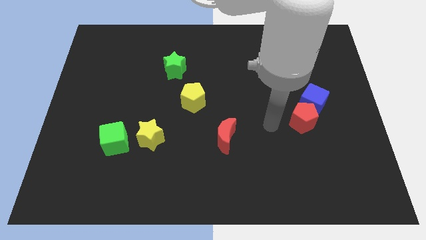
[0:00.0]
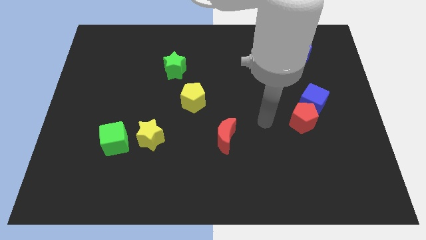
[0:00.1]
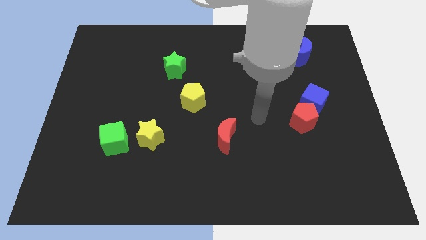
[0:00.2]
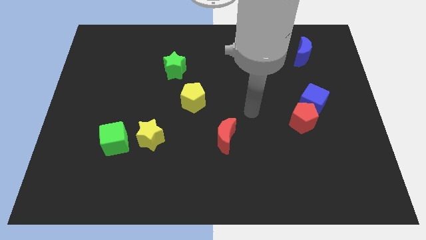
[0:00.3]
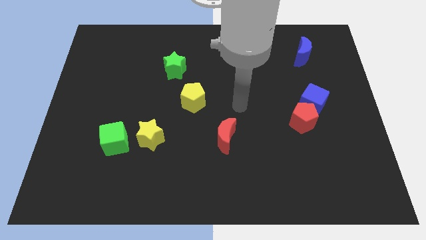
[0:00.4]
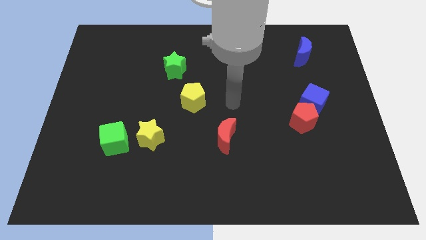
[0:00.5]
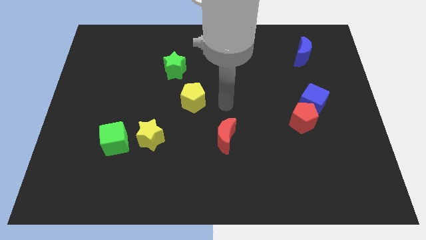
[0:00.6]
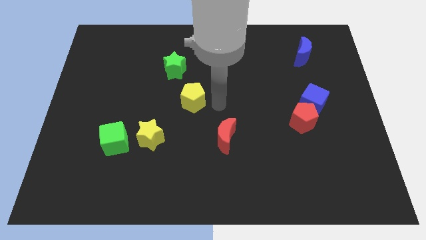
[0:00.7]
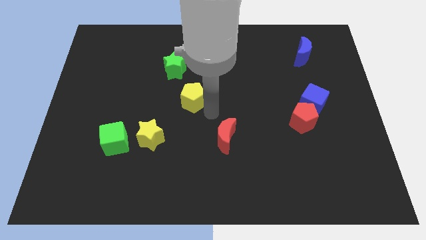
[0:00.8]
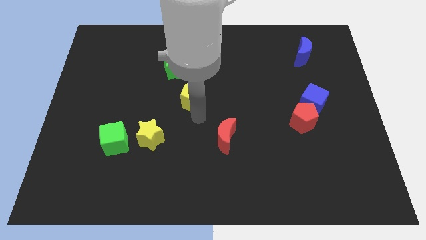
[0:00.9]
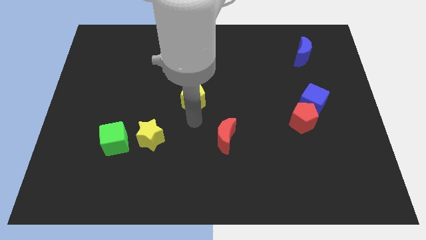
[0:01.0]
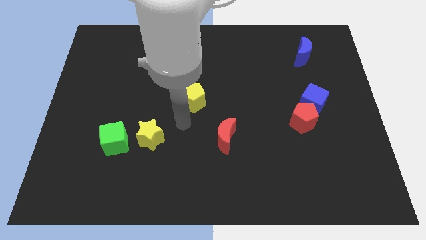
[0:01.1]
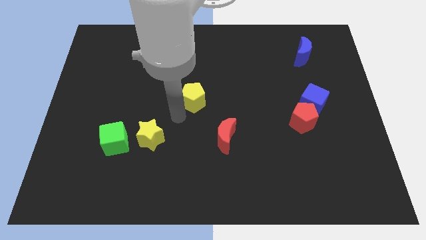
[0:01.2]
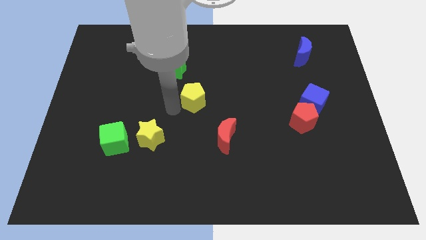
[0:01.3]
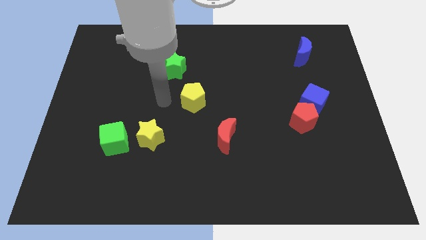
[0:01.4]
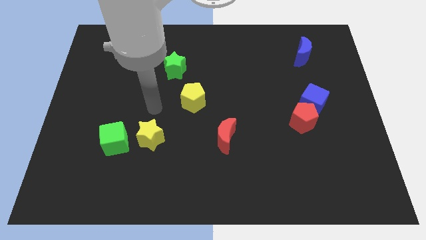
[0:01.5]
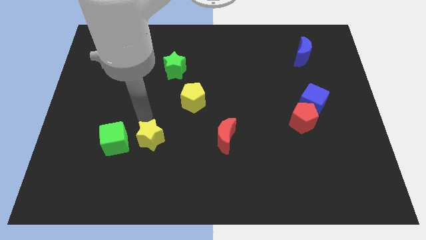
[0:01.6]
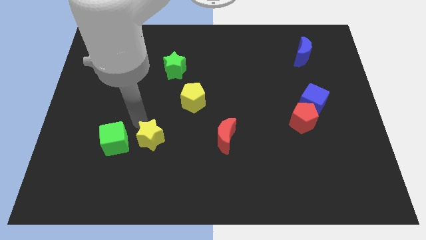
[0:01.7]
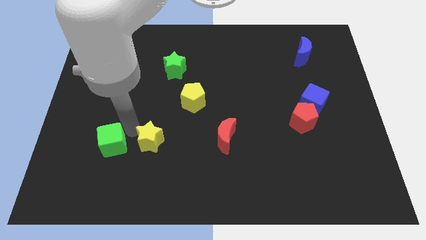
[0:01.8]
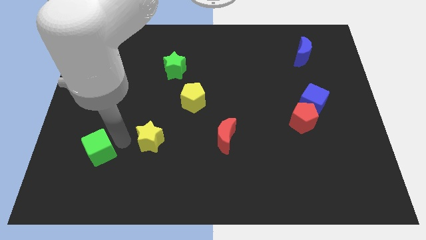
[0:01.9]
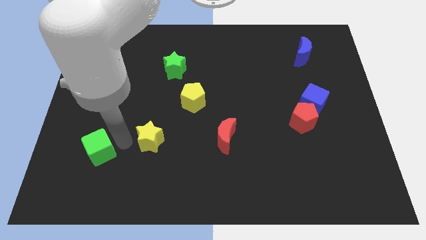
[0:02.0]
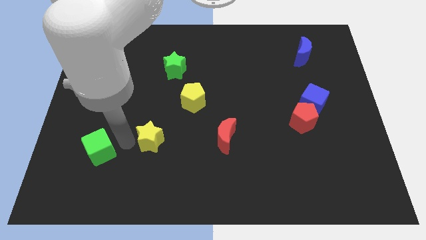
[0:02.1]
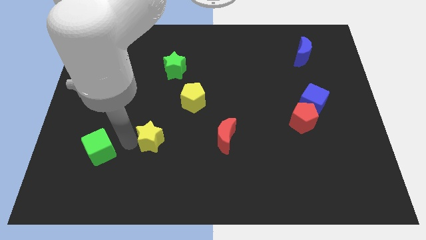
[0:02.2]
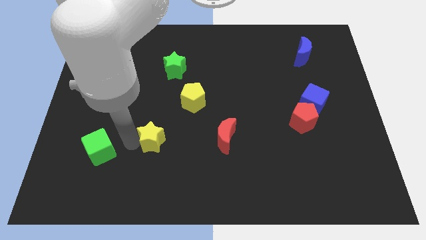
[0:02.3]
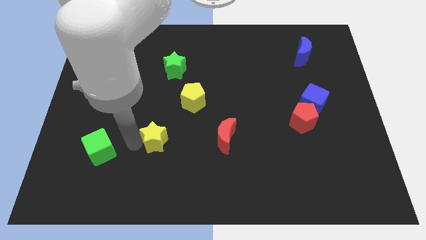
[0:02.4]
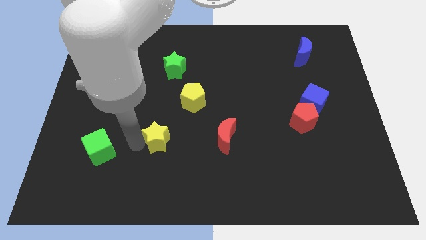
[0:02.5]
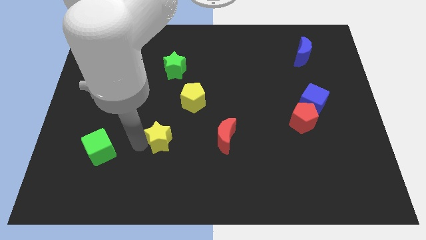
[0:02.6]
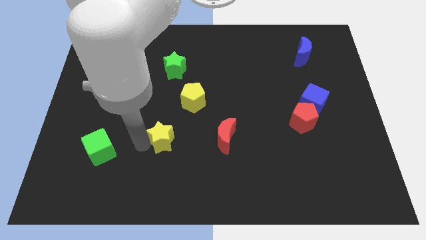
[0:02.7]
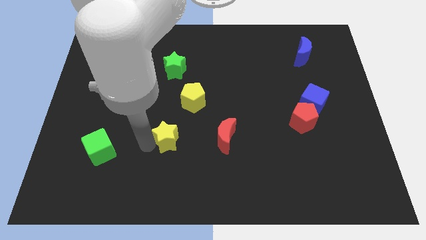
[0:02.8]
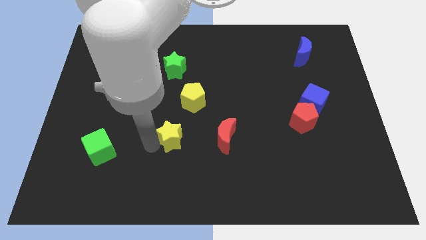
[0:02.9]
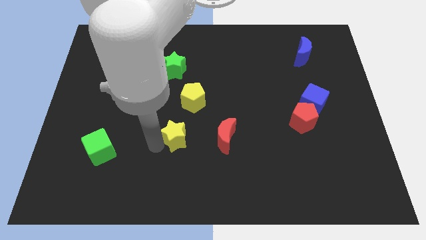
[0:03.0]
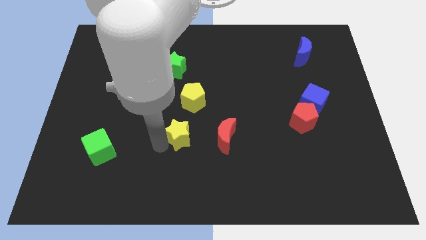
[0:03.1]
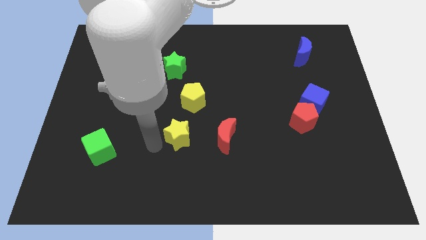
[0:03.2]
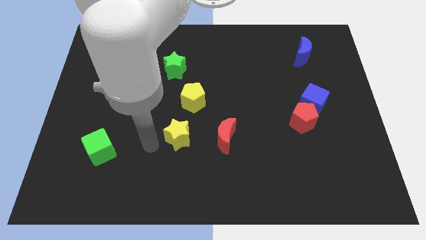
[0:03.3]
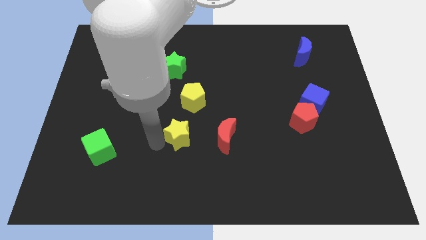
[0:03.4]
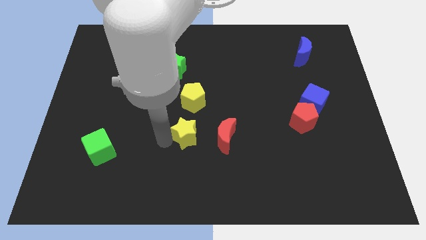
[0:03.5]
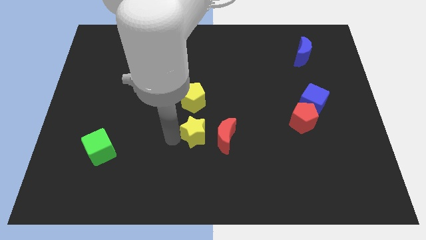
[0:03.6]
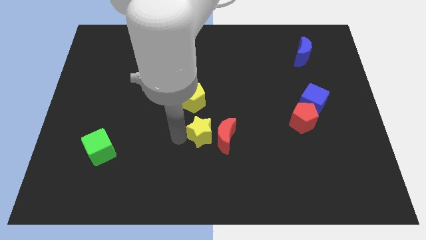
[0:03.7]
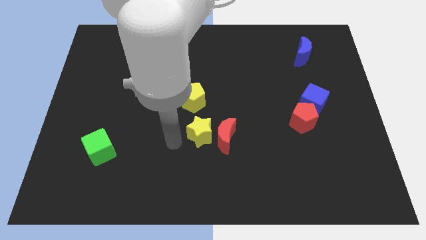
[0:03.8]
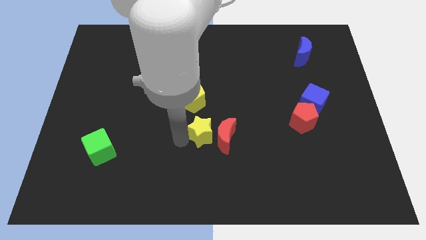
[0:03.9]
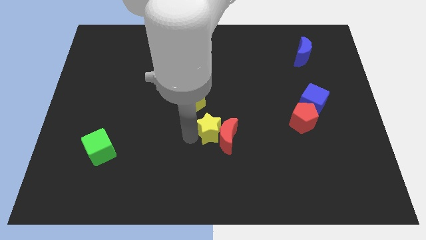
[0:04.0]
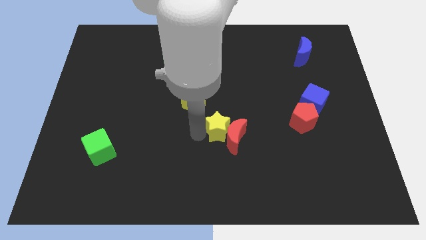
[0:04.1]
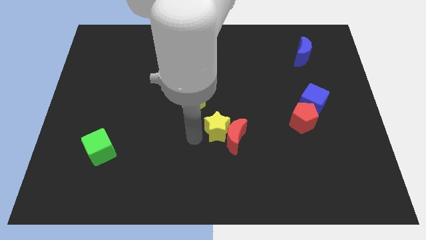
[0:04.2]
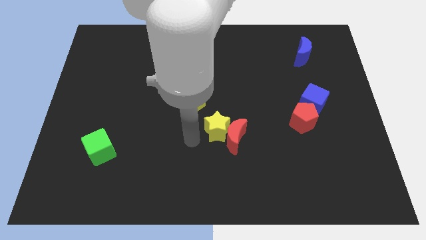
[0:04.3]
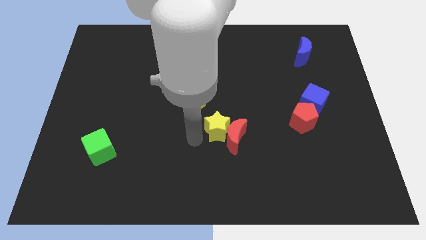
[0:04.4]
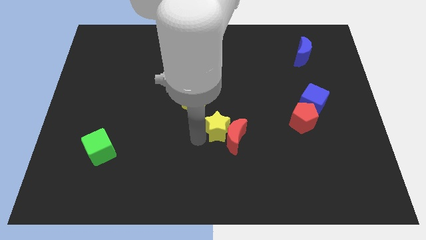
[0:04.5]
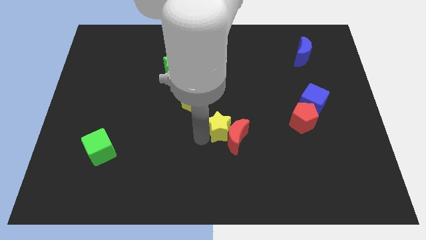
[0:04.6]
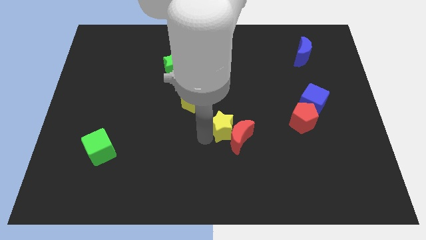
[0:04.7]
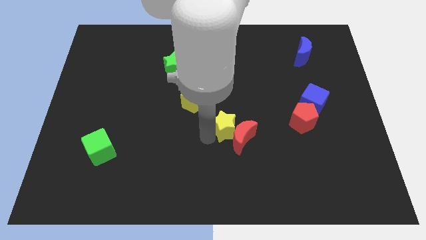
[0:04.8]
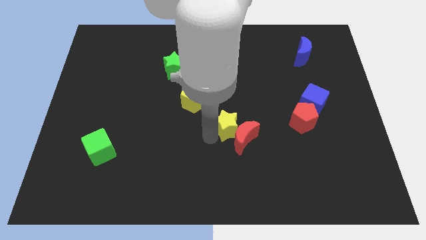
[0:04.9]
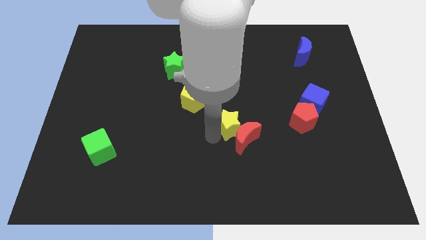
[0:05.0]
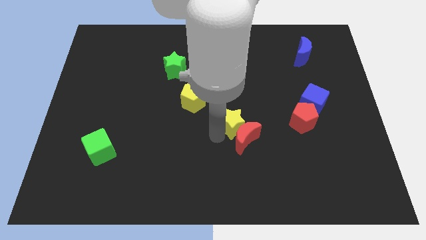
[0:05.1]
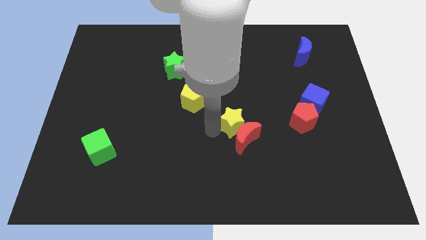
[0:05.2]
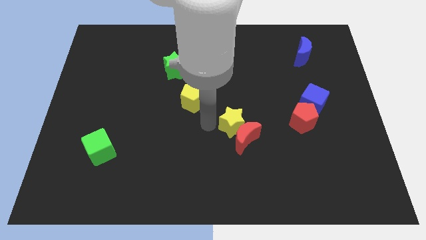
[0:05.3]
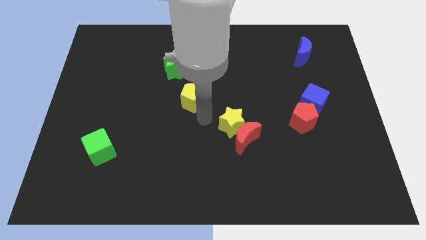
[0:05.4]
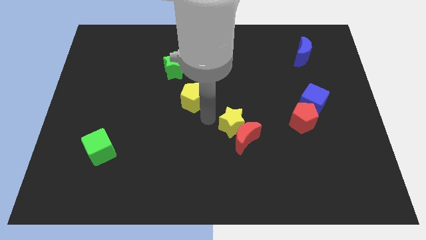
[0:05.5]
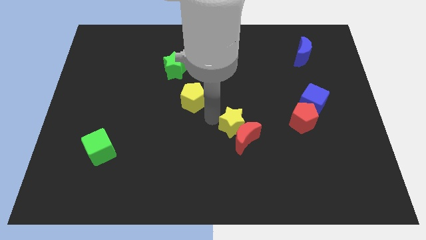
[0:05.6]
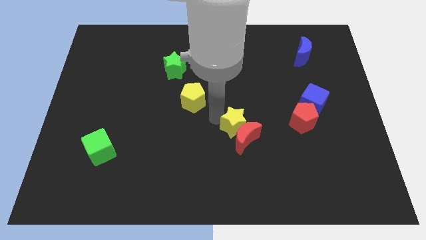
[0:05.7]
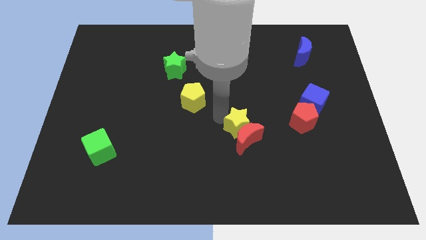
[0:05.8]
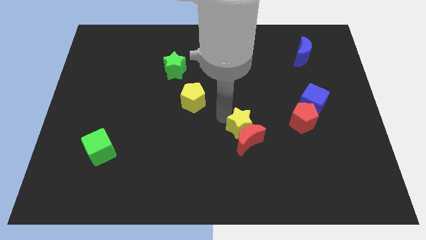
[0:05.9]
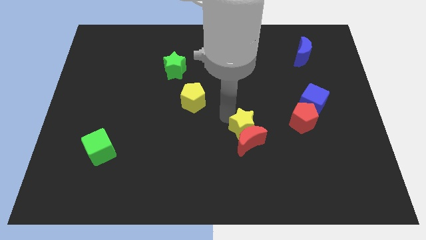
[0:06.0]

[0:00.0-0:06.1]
move the yellow star to the right

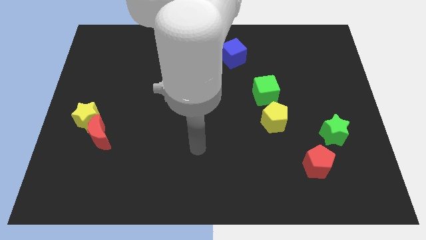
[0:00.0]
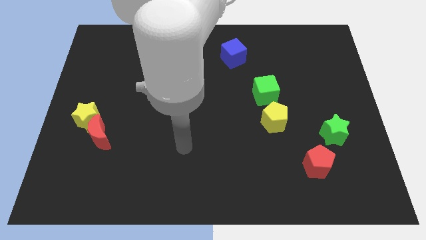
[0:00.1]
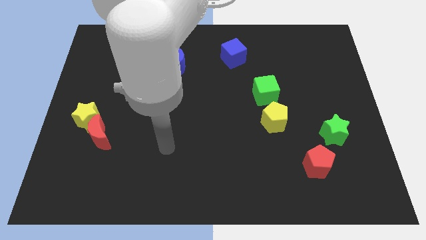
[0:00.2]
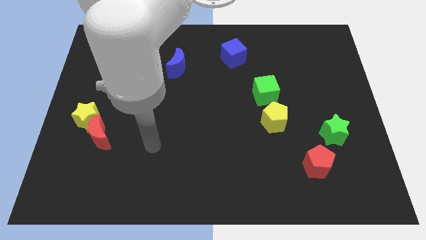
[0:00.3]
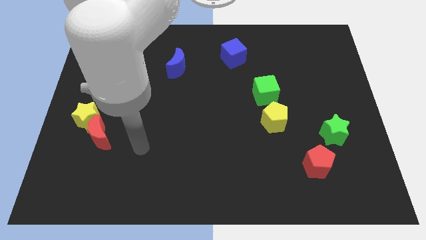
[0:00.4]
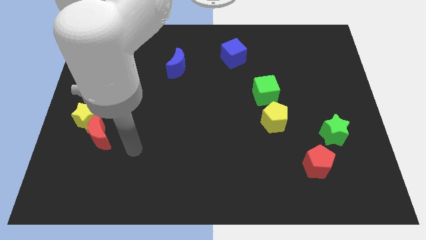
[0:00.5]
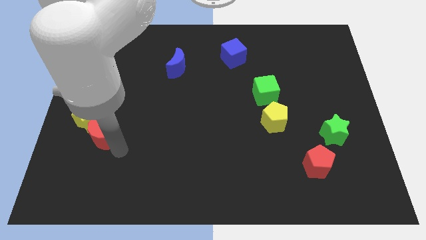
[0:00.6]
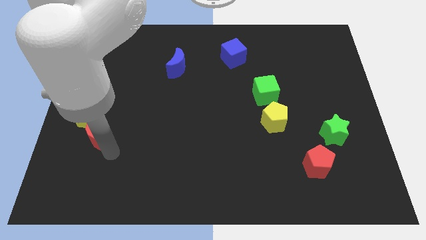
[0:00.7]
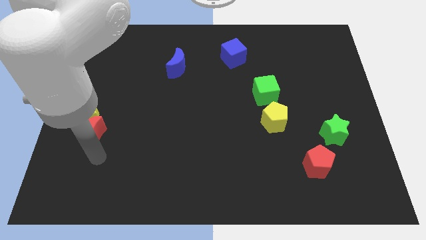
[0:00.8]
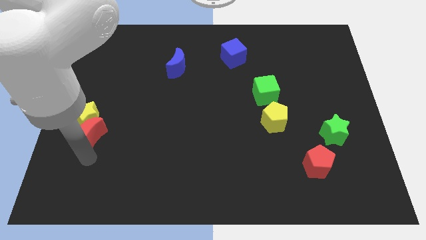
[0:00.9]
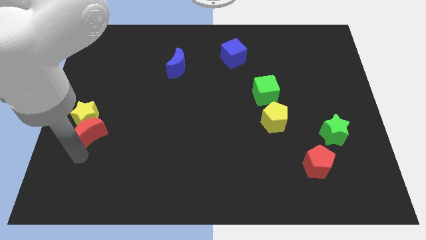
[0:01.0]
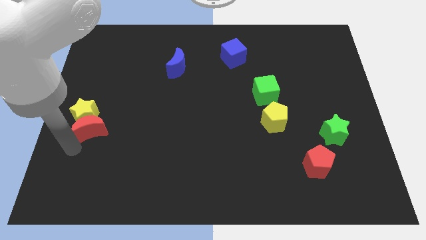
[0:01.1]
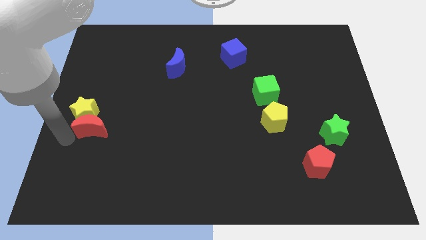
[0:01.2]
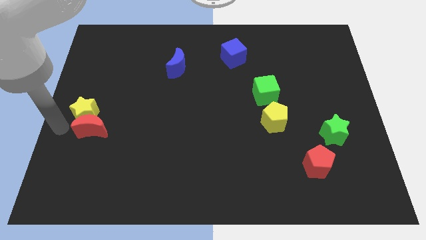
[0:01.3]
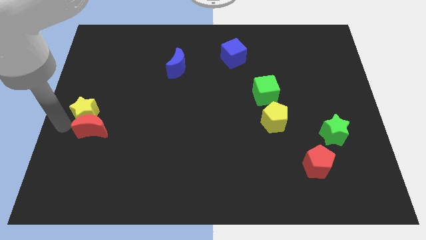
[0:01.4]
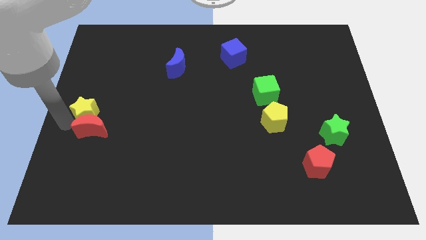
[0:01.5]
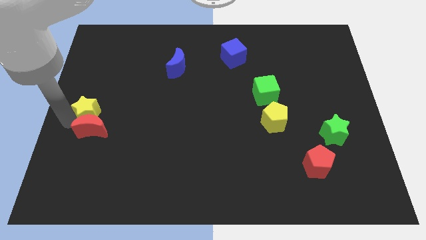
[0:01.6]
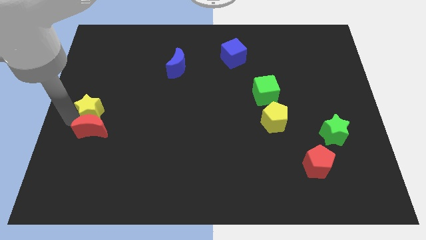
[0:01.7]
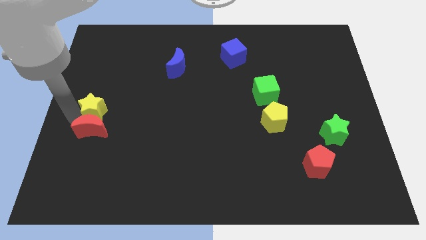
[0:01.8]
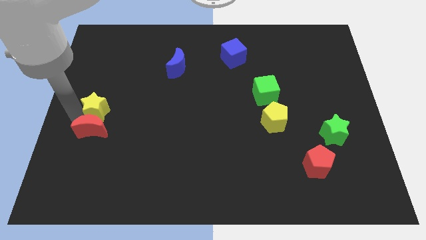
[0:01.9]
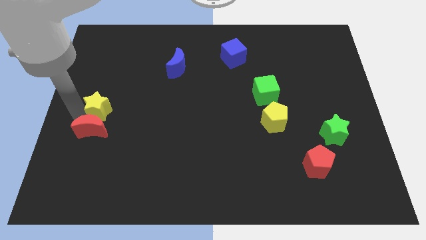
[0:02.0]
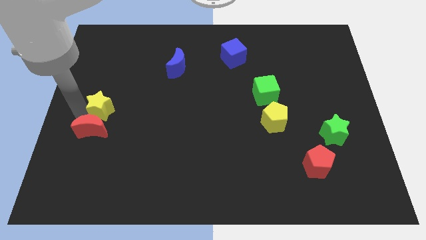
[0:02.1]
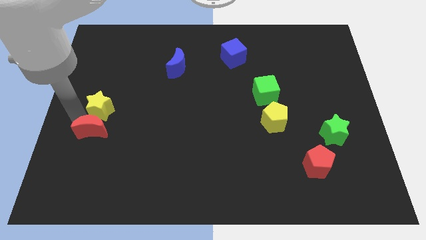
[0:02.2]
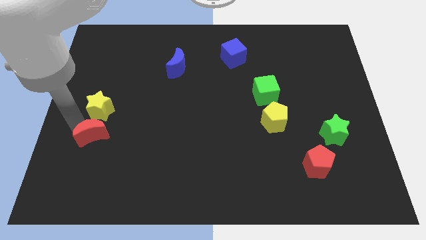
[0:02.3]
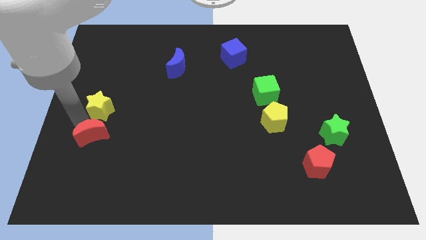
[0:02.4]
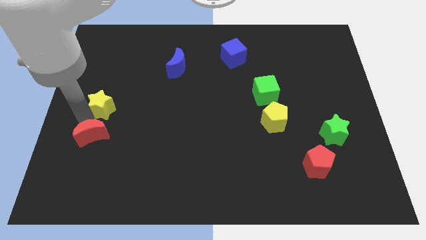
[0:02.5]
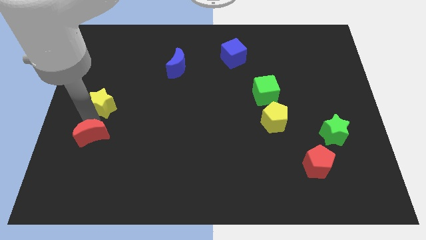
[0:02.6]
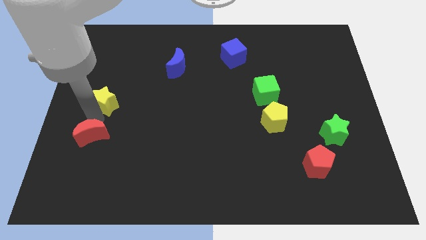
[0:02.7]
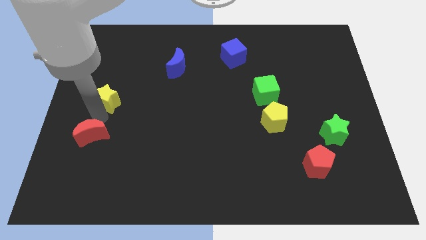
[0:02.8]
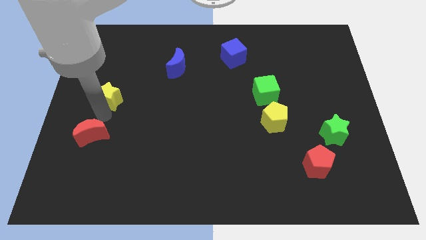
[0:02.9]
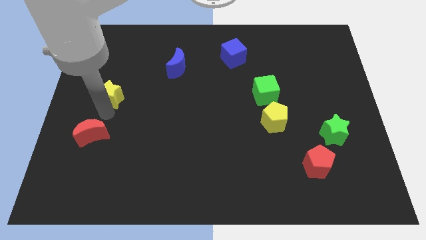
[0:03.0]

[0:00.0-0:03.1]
slide the yellow star upwards and to the right diagonally a bit
